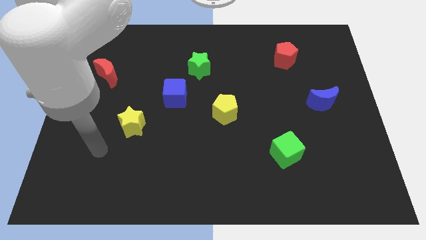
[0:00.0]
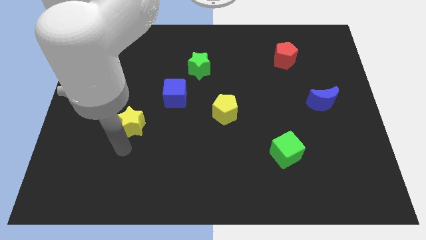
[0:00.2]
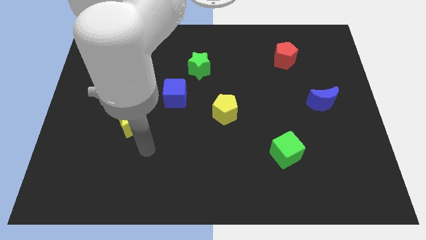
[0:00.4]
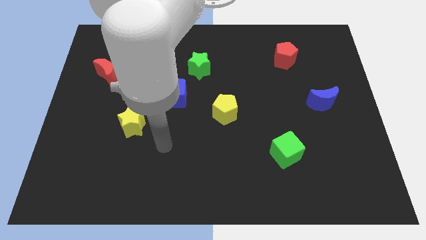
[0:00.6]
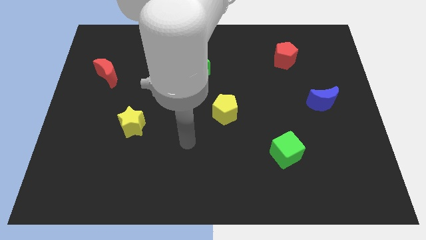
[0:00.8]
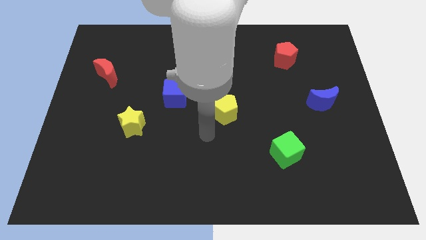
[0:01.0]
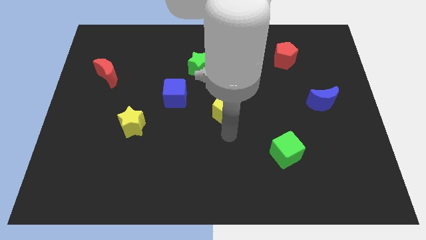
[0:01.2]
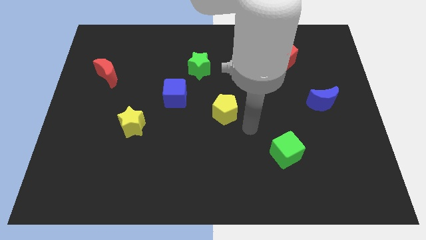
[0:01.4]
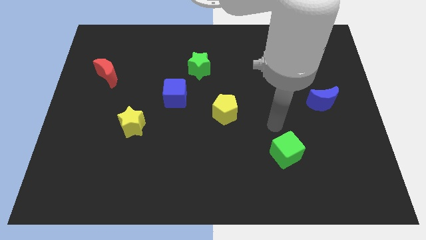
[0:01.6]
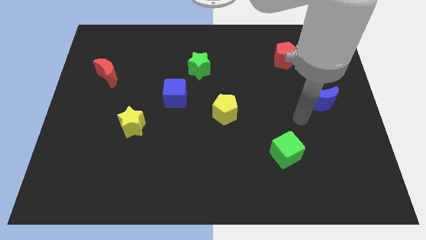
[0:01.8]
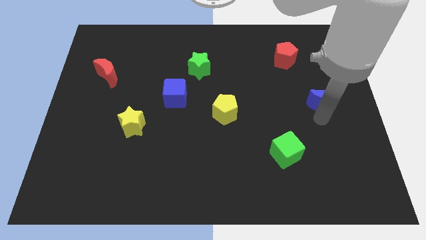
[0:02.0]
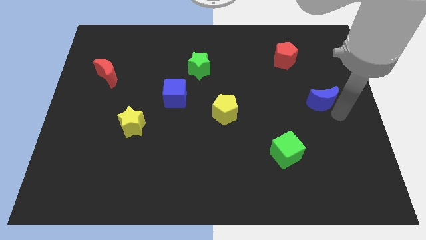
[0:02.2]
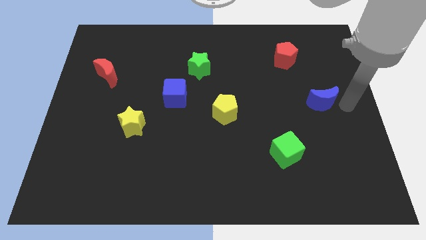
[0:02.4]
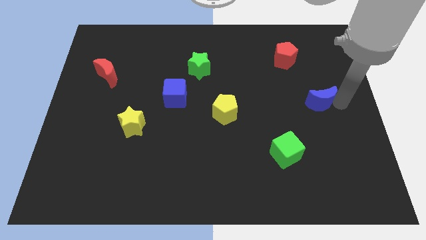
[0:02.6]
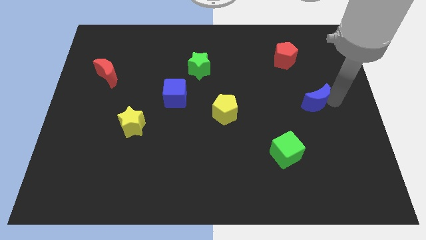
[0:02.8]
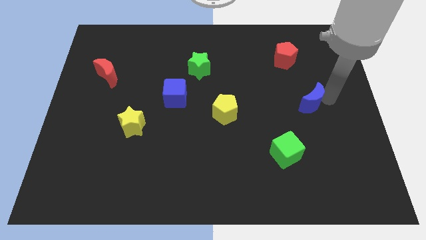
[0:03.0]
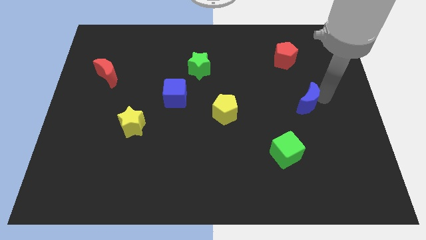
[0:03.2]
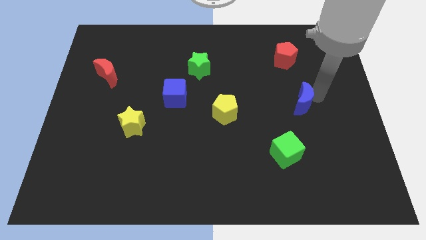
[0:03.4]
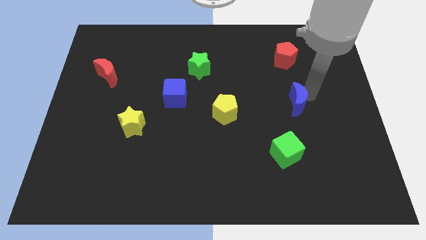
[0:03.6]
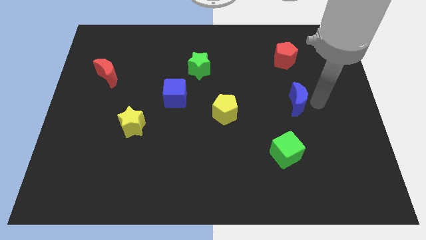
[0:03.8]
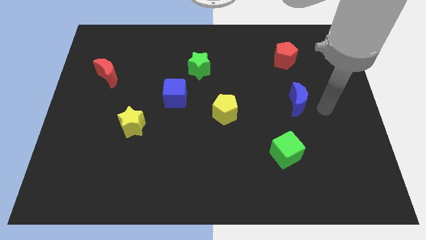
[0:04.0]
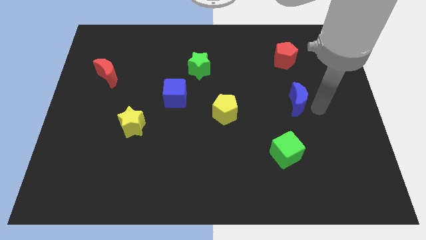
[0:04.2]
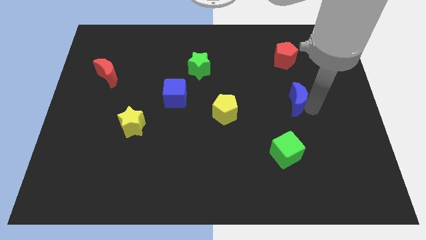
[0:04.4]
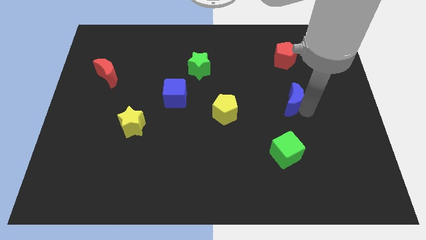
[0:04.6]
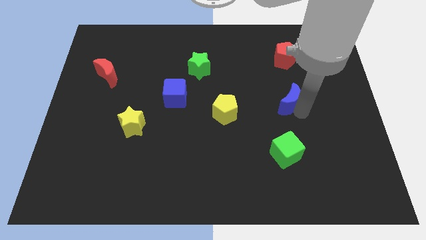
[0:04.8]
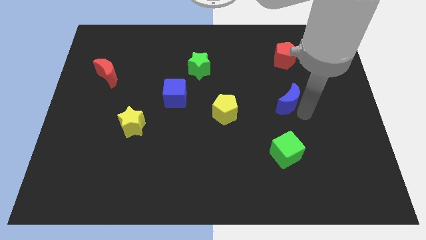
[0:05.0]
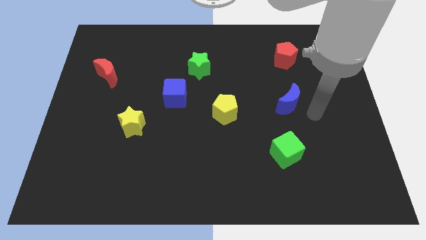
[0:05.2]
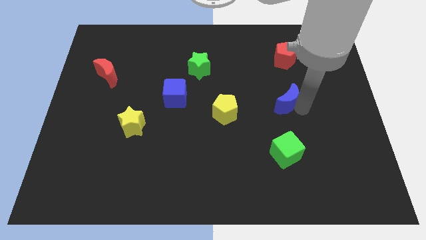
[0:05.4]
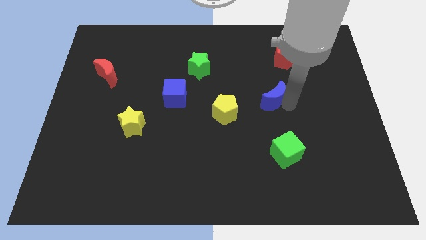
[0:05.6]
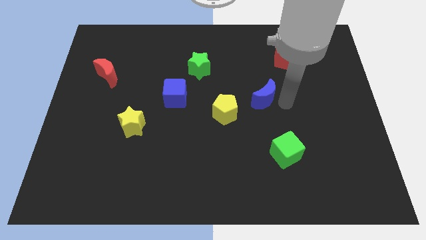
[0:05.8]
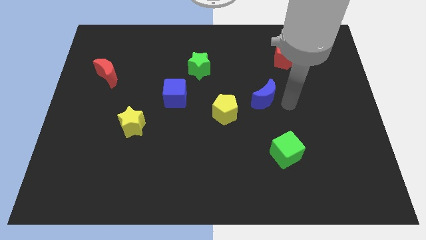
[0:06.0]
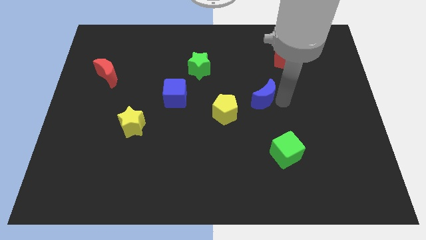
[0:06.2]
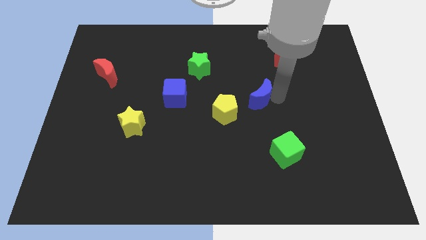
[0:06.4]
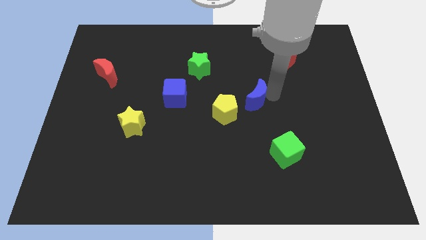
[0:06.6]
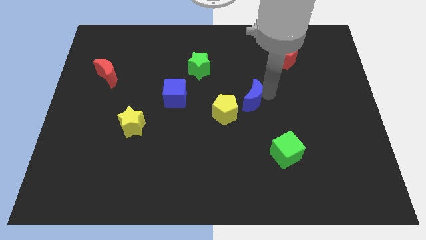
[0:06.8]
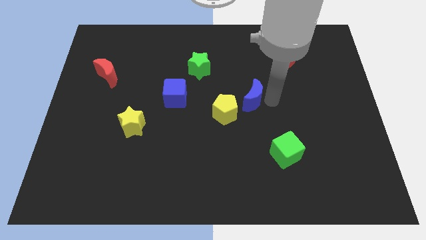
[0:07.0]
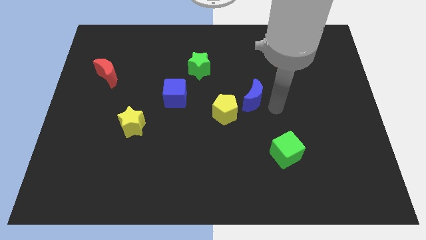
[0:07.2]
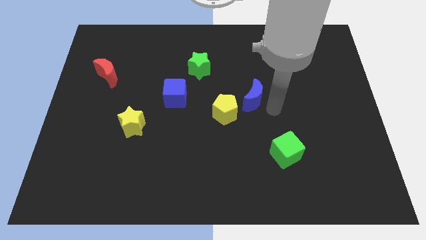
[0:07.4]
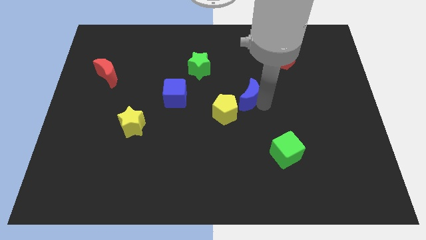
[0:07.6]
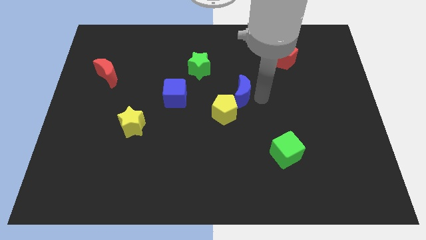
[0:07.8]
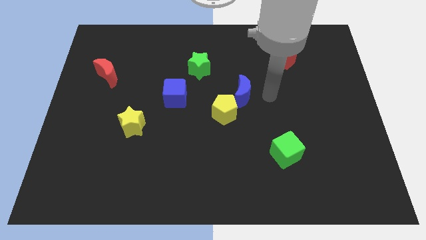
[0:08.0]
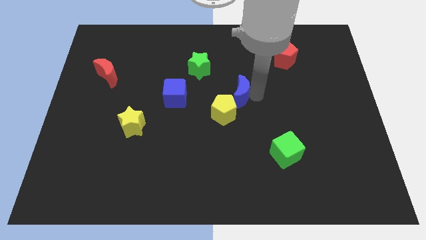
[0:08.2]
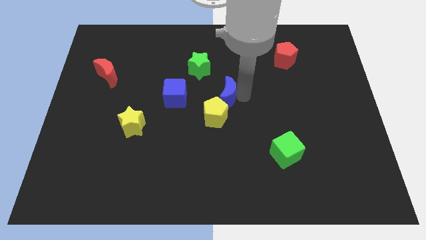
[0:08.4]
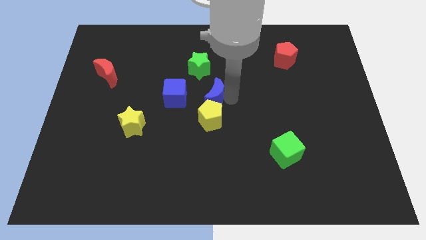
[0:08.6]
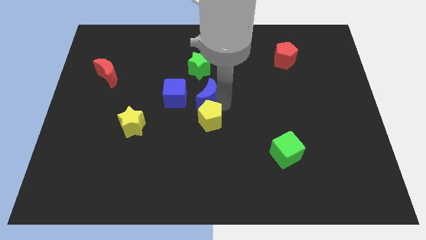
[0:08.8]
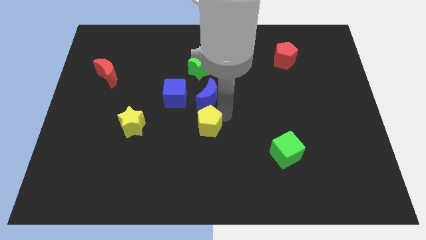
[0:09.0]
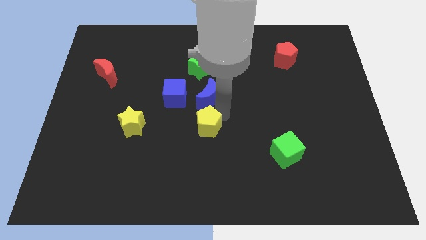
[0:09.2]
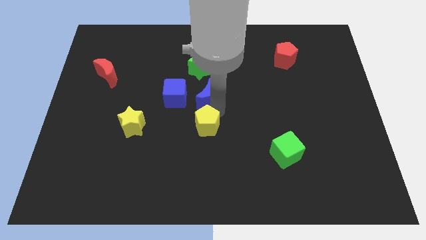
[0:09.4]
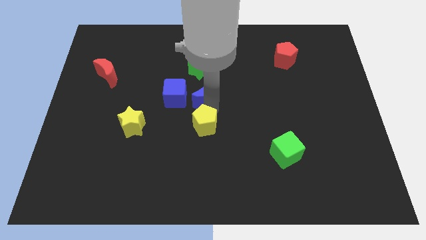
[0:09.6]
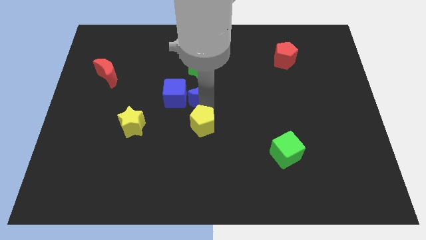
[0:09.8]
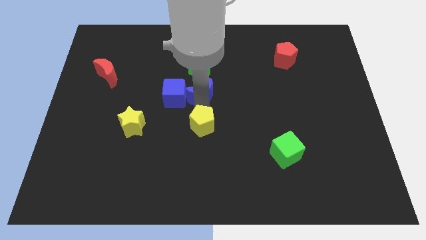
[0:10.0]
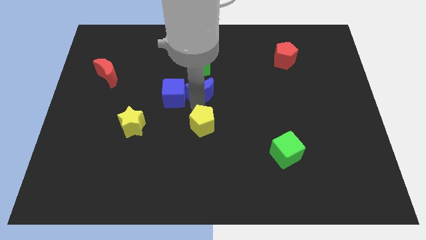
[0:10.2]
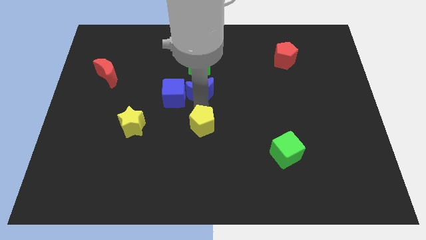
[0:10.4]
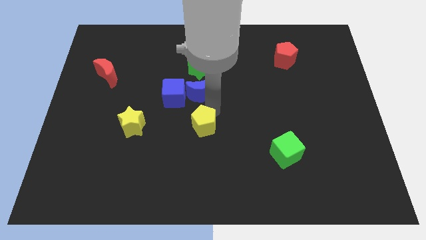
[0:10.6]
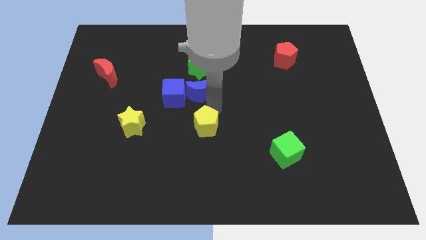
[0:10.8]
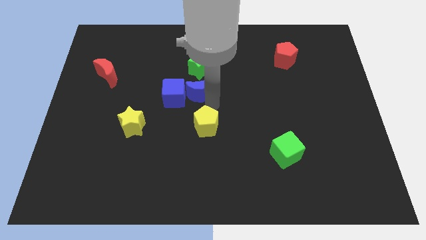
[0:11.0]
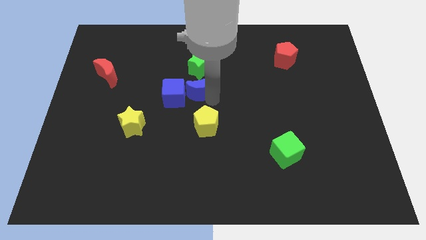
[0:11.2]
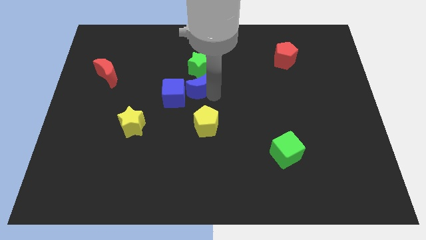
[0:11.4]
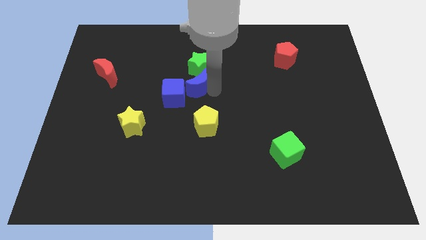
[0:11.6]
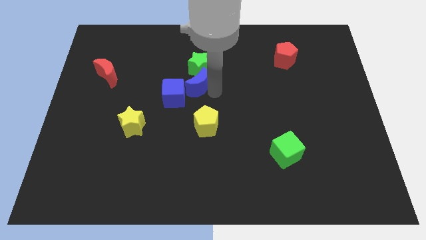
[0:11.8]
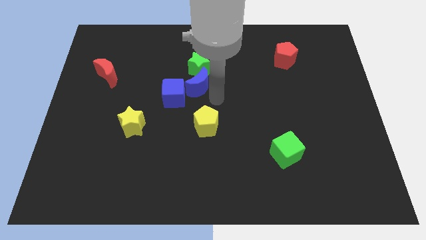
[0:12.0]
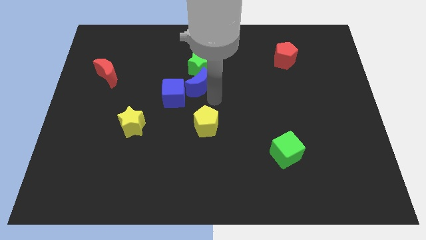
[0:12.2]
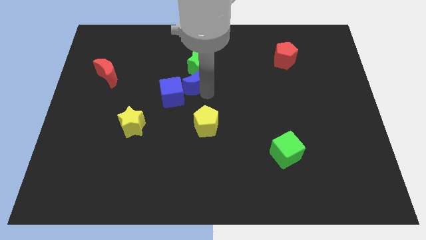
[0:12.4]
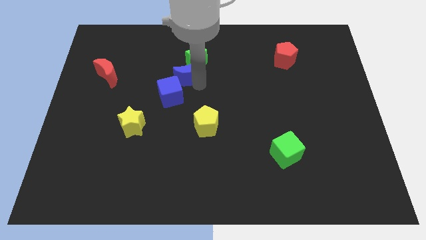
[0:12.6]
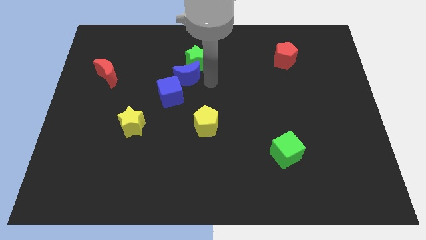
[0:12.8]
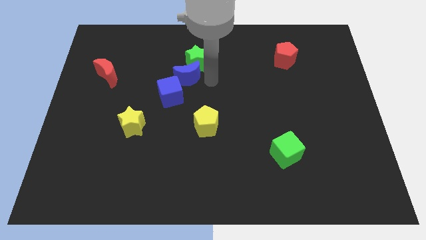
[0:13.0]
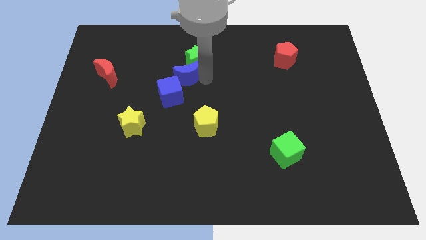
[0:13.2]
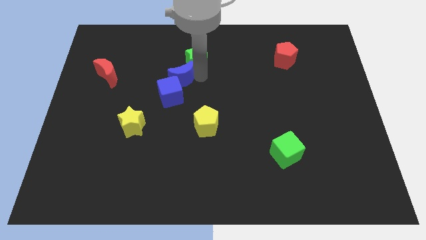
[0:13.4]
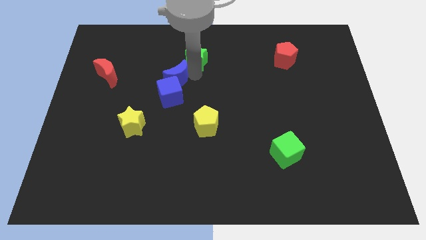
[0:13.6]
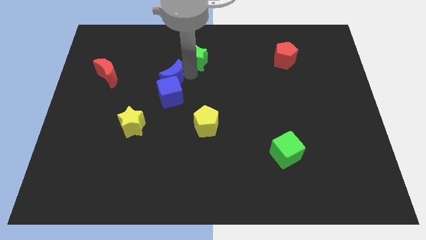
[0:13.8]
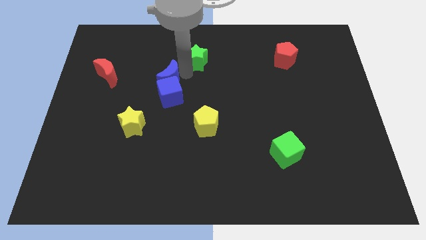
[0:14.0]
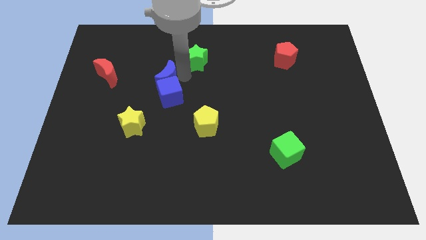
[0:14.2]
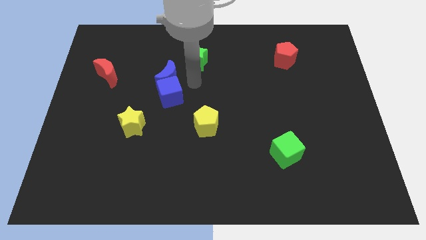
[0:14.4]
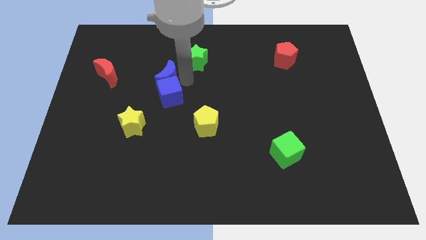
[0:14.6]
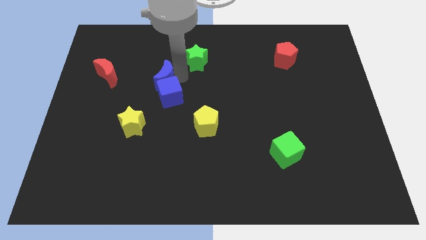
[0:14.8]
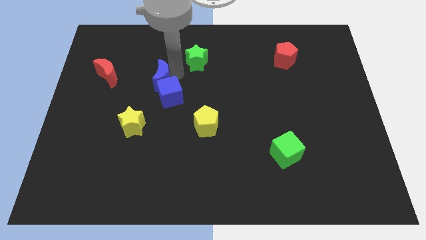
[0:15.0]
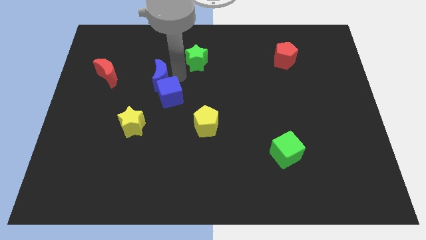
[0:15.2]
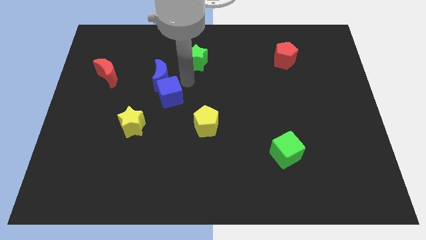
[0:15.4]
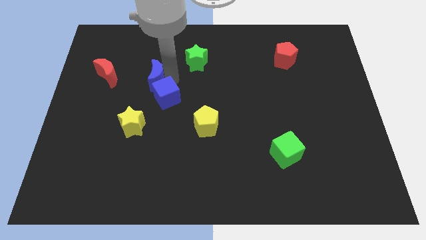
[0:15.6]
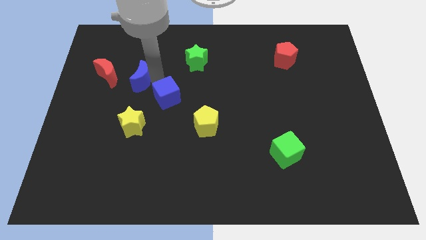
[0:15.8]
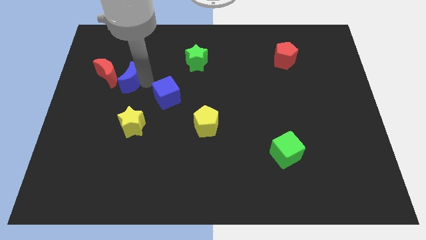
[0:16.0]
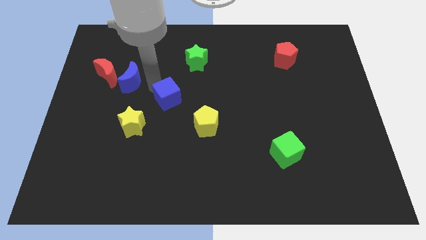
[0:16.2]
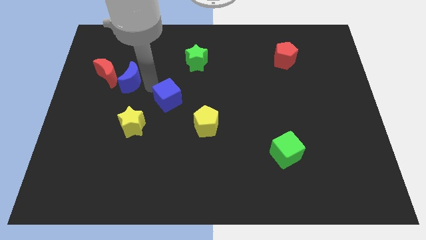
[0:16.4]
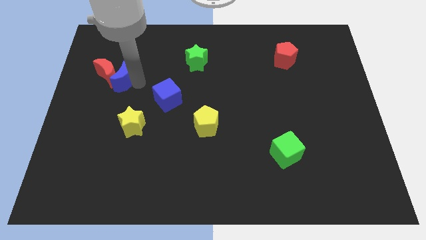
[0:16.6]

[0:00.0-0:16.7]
put the blue moon next to the red moon
